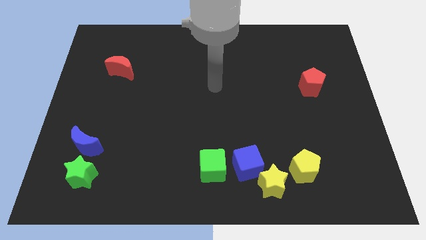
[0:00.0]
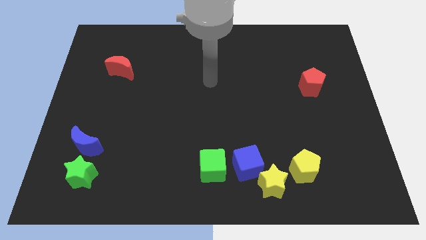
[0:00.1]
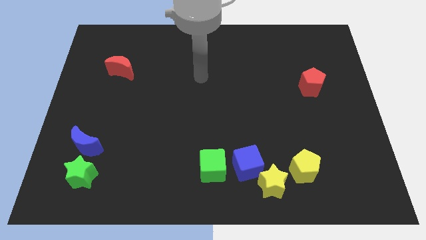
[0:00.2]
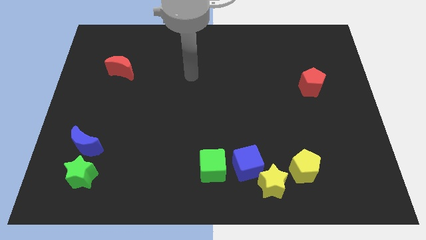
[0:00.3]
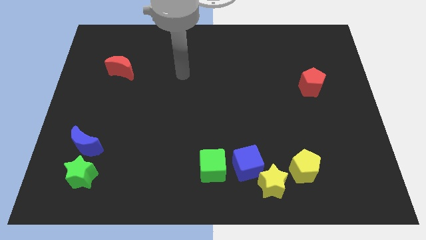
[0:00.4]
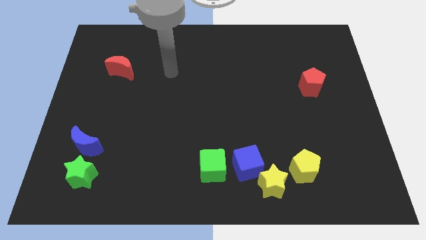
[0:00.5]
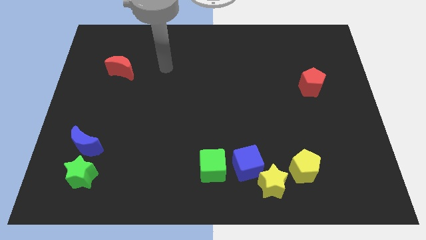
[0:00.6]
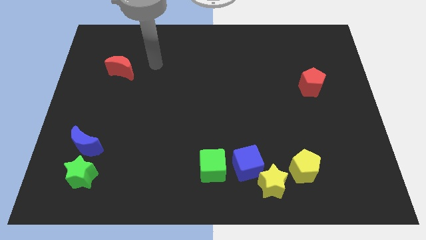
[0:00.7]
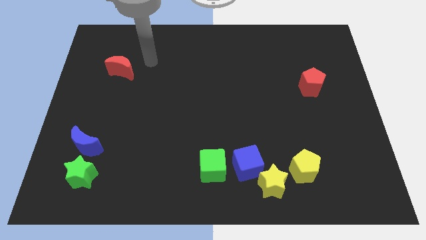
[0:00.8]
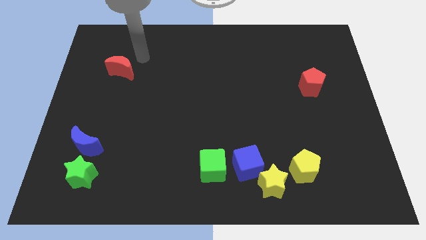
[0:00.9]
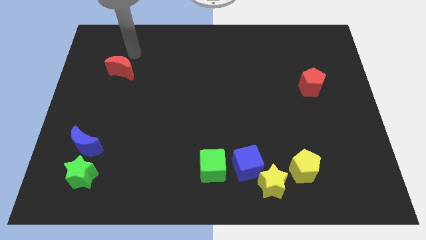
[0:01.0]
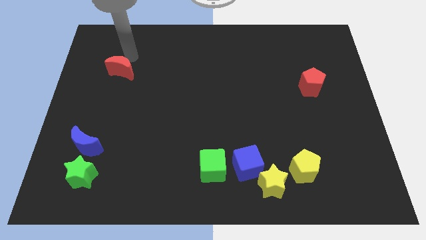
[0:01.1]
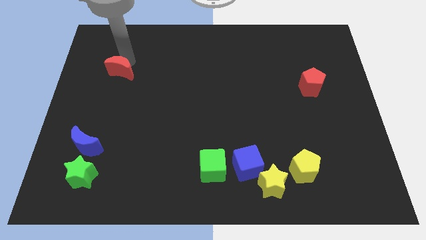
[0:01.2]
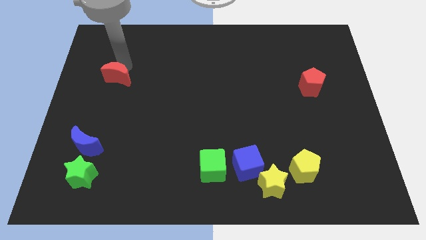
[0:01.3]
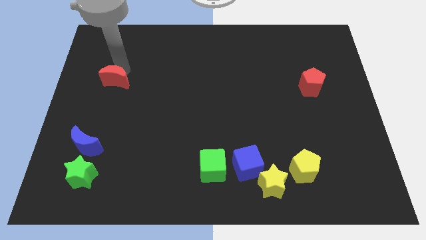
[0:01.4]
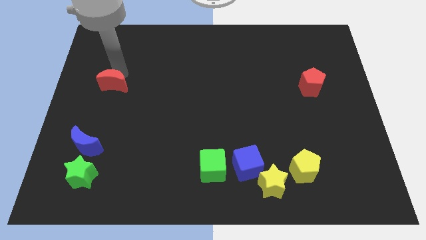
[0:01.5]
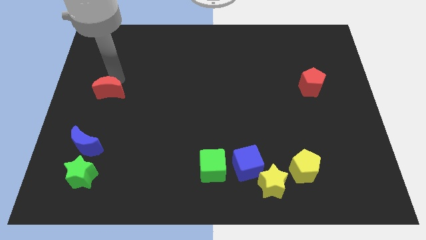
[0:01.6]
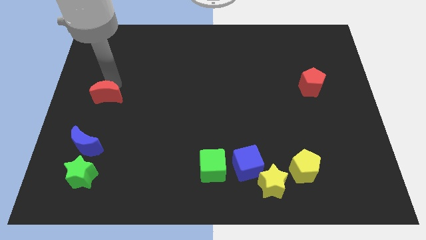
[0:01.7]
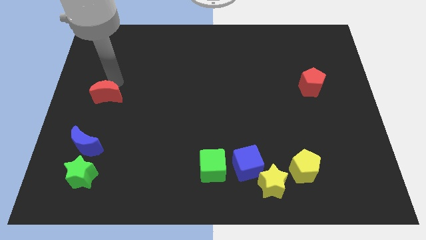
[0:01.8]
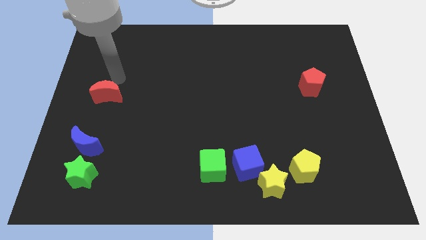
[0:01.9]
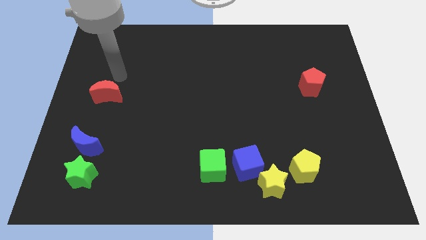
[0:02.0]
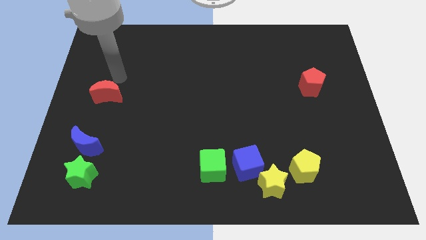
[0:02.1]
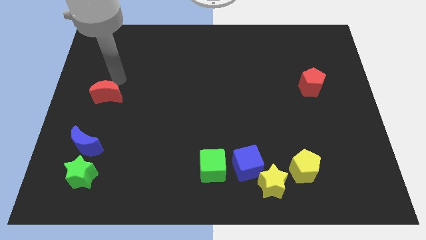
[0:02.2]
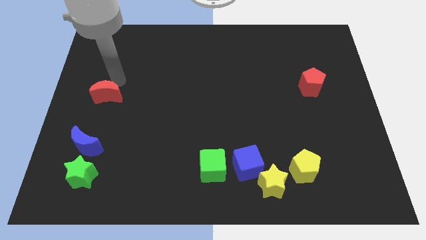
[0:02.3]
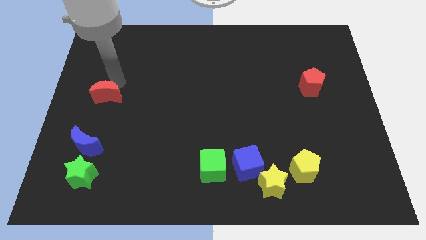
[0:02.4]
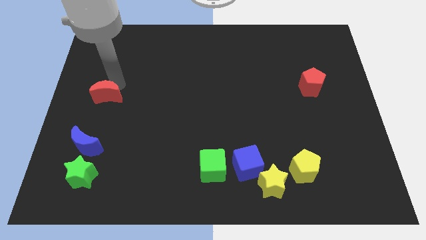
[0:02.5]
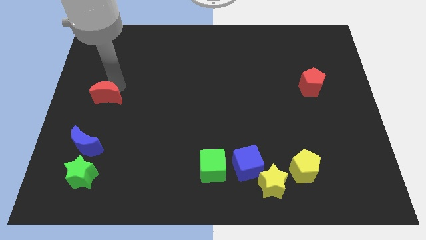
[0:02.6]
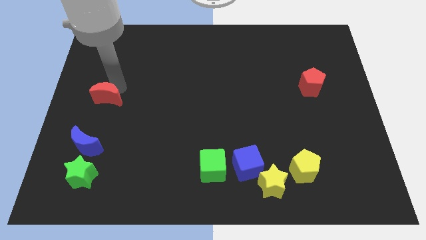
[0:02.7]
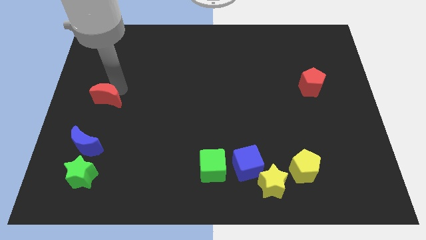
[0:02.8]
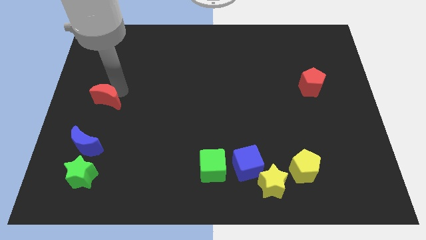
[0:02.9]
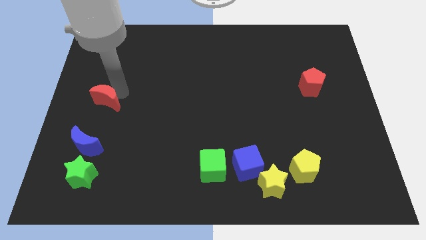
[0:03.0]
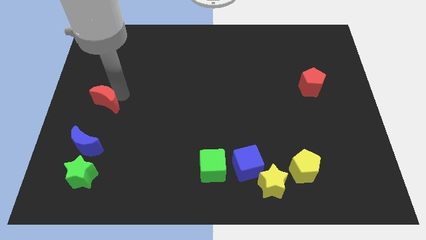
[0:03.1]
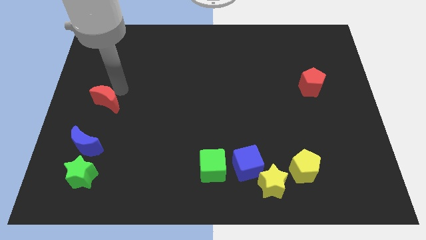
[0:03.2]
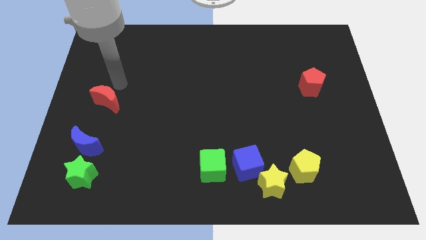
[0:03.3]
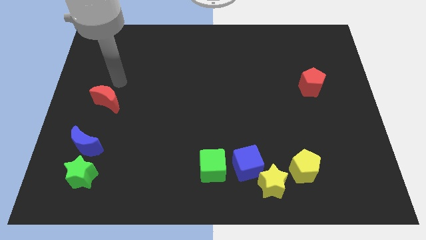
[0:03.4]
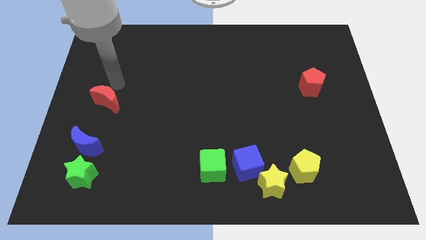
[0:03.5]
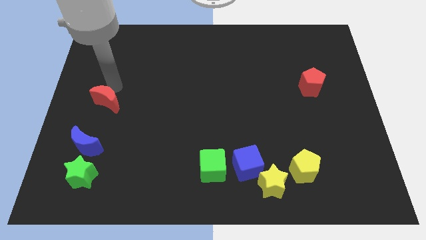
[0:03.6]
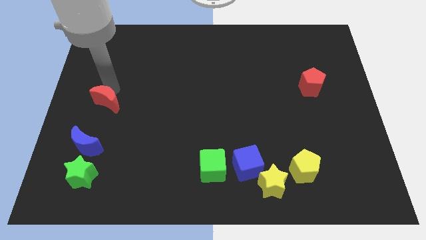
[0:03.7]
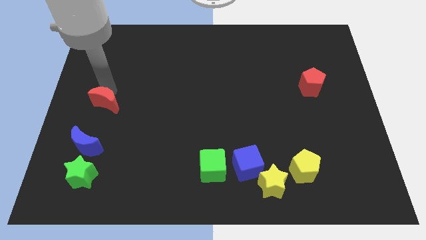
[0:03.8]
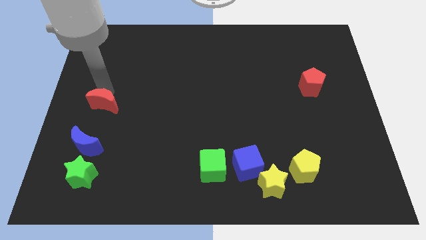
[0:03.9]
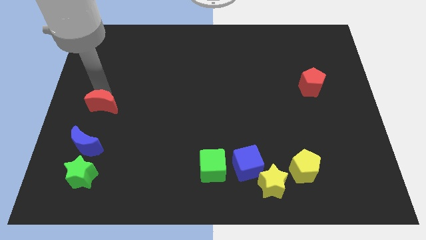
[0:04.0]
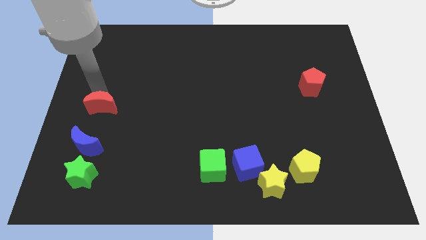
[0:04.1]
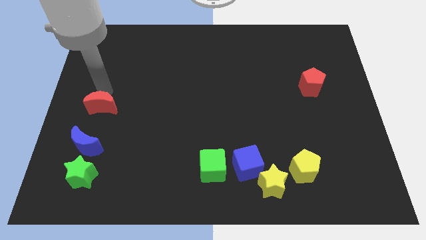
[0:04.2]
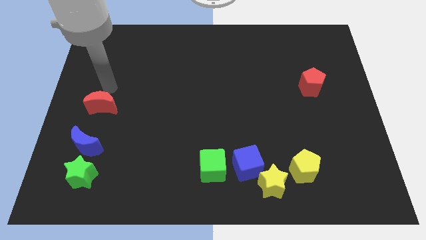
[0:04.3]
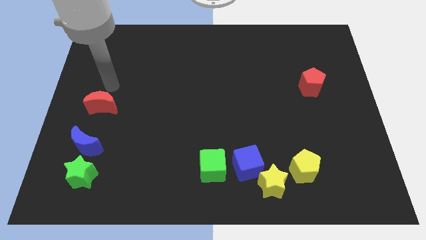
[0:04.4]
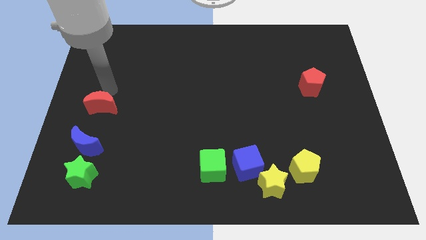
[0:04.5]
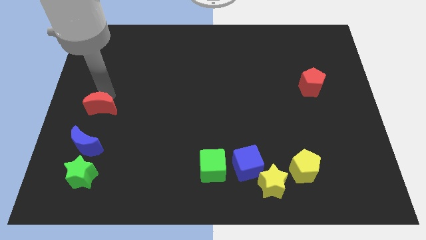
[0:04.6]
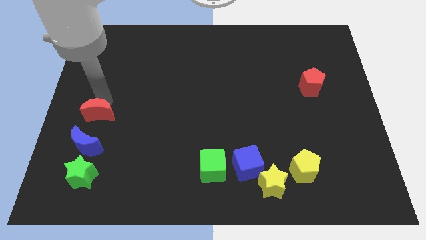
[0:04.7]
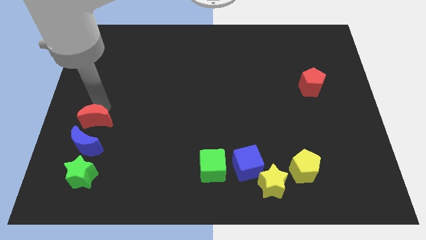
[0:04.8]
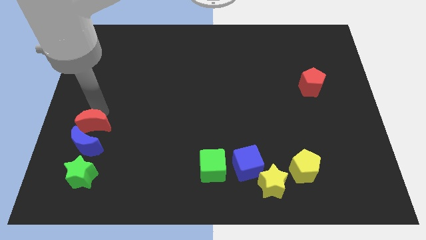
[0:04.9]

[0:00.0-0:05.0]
move the red moon towards the blue moon

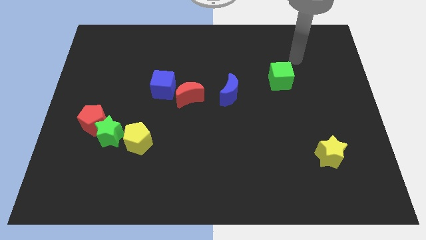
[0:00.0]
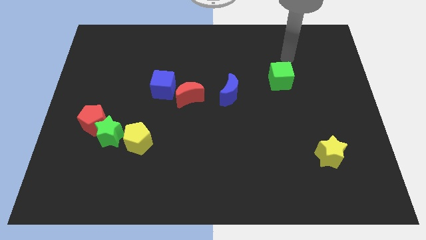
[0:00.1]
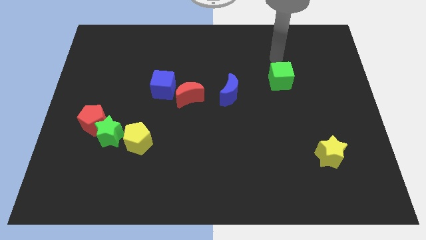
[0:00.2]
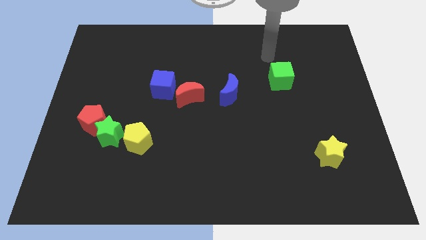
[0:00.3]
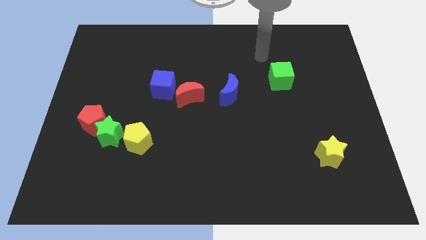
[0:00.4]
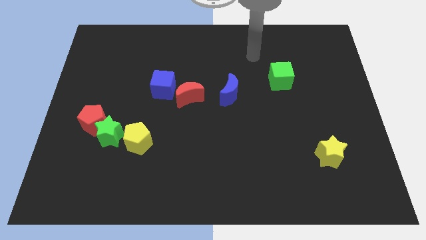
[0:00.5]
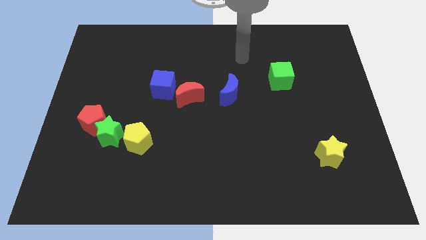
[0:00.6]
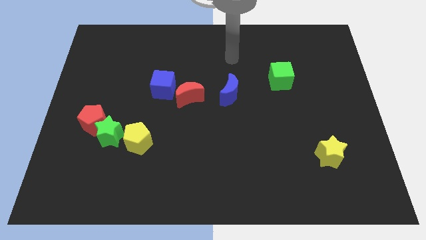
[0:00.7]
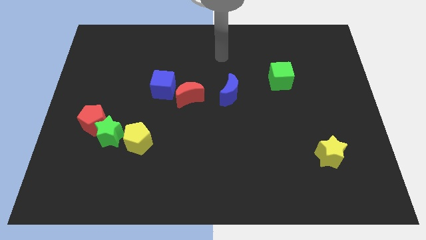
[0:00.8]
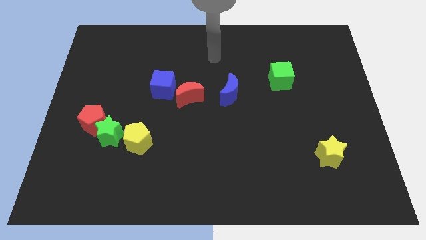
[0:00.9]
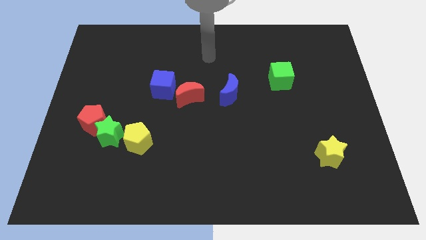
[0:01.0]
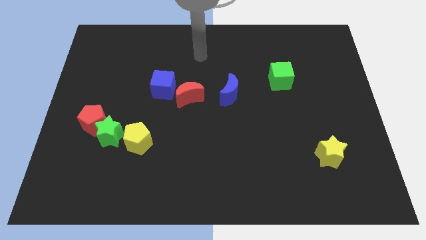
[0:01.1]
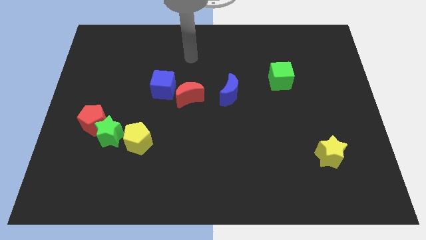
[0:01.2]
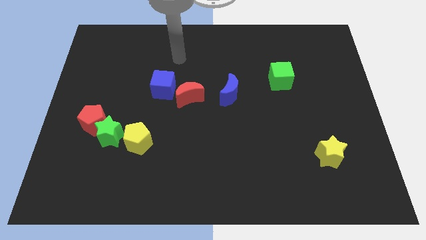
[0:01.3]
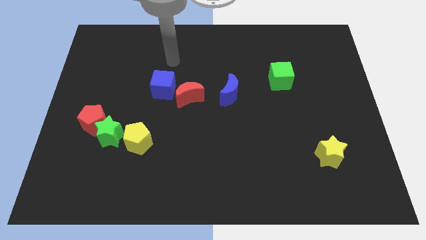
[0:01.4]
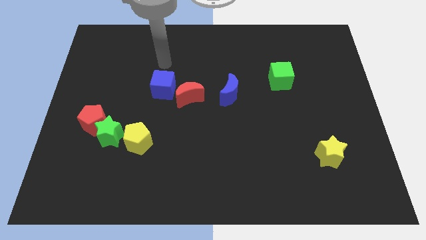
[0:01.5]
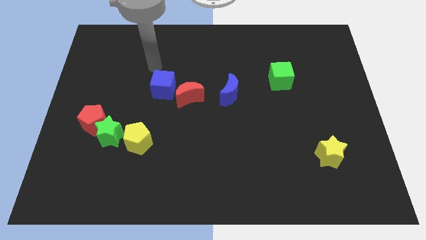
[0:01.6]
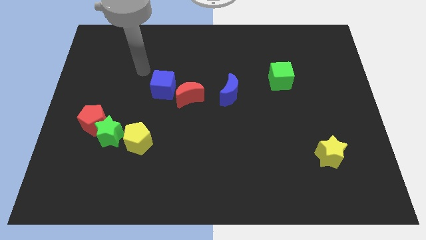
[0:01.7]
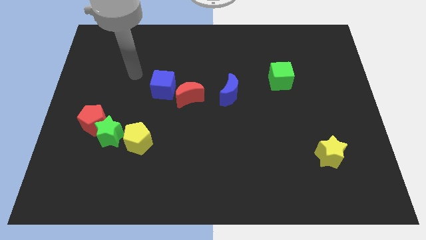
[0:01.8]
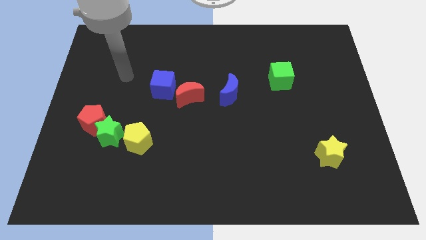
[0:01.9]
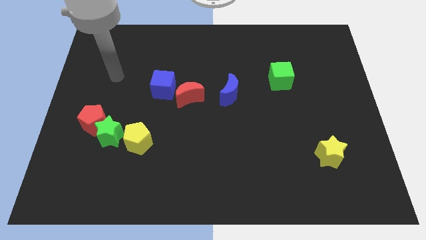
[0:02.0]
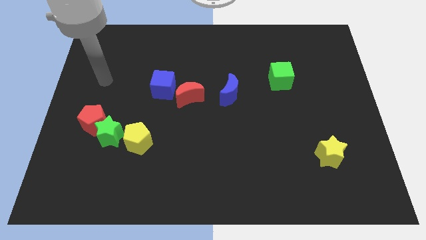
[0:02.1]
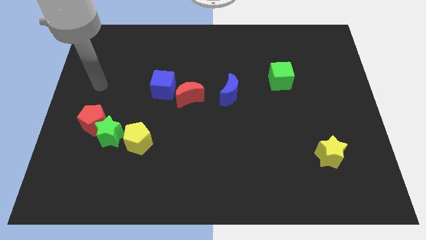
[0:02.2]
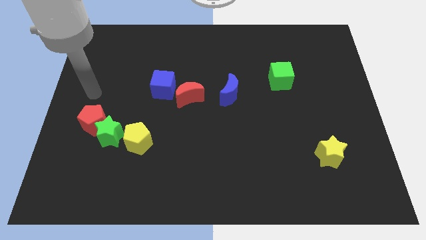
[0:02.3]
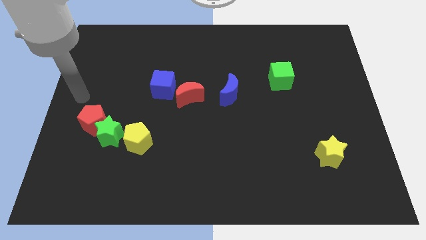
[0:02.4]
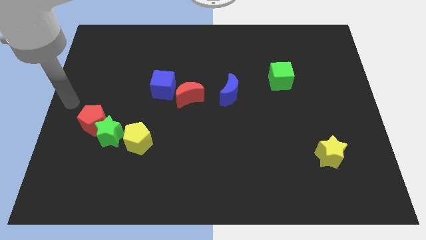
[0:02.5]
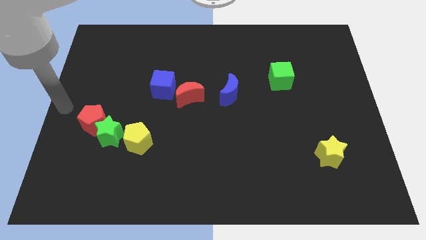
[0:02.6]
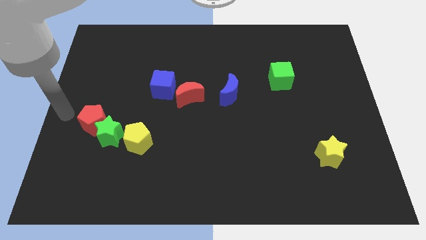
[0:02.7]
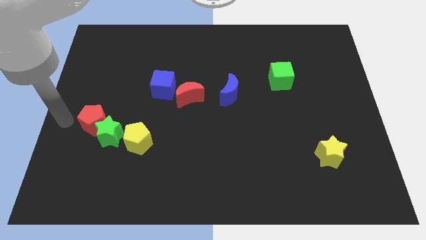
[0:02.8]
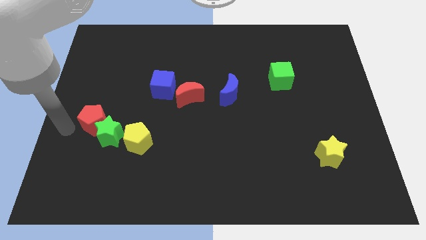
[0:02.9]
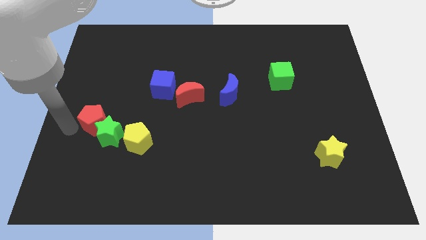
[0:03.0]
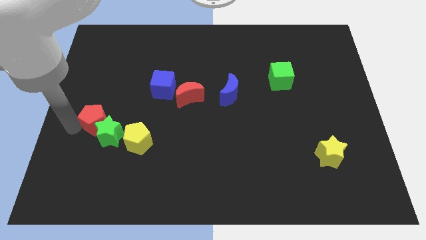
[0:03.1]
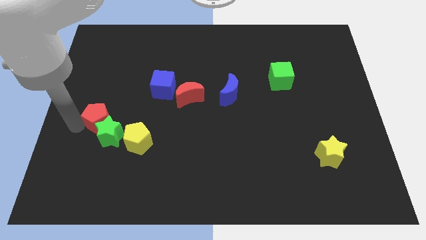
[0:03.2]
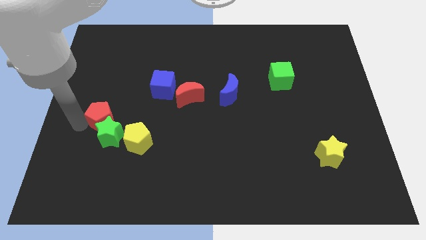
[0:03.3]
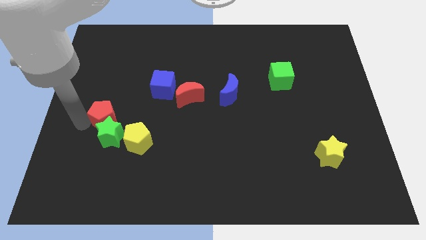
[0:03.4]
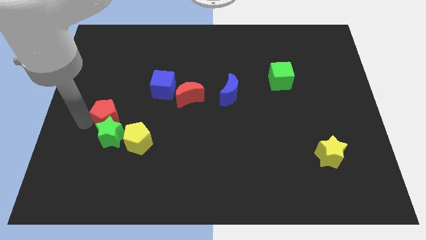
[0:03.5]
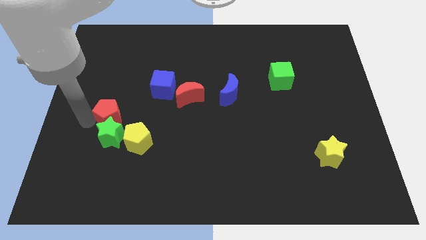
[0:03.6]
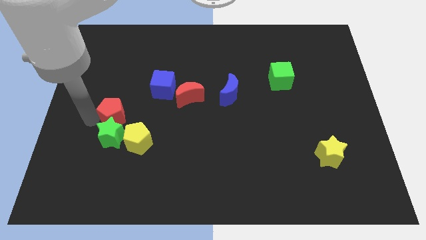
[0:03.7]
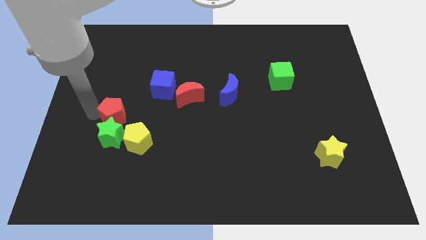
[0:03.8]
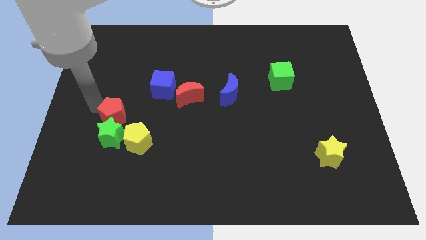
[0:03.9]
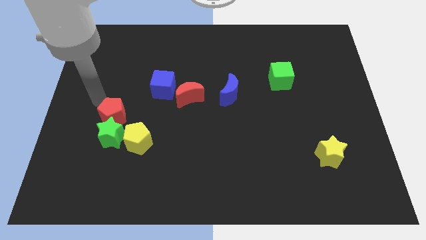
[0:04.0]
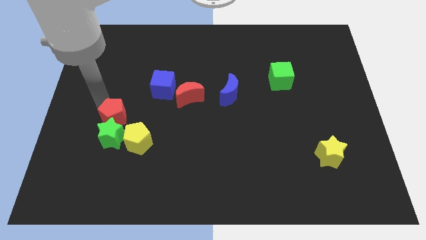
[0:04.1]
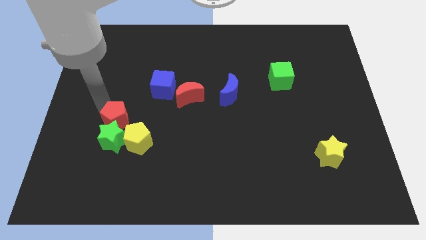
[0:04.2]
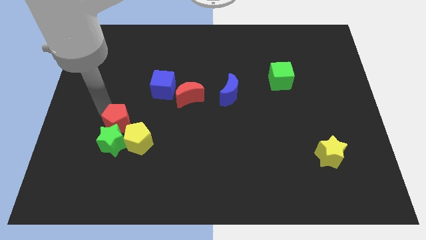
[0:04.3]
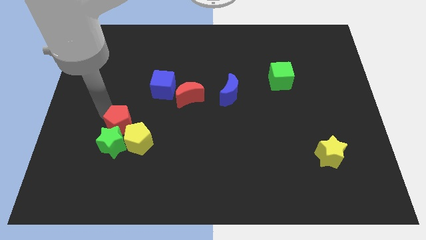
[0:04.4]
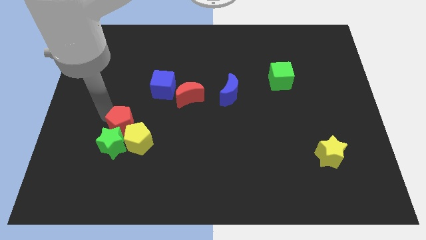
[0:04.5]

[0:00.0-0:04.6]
put the red pentagon close to the yellow pentagon
